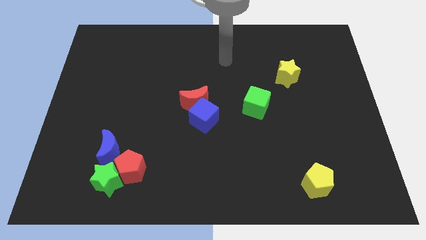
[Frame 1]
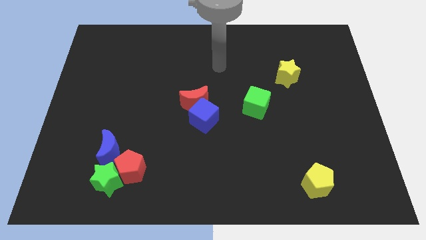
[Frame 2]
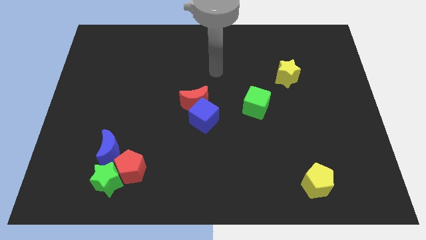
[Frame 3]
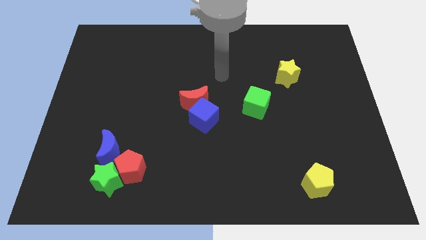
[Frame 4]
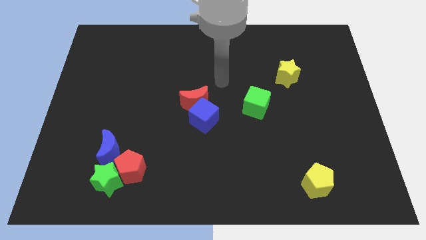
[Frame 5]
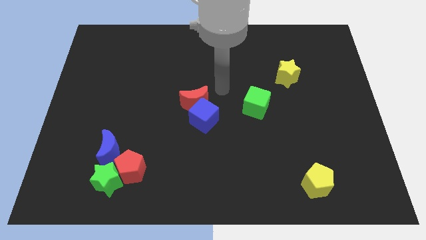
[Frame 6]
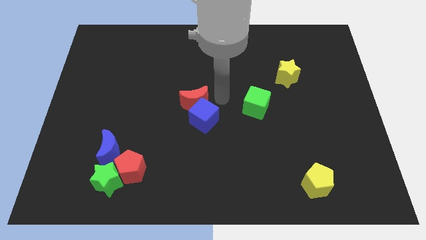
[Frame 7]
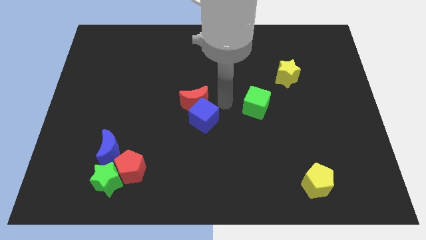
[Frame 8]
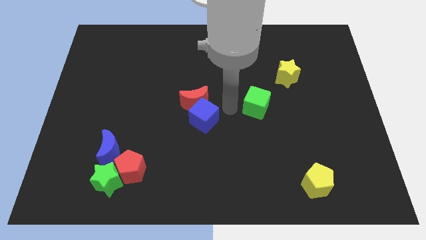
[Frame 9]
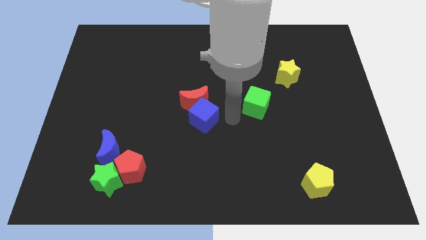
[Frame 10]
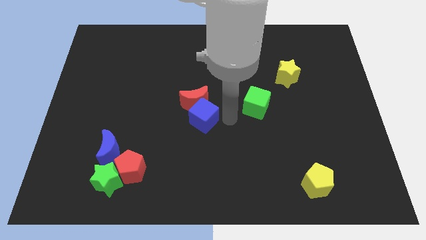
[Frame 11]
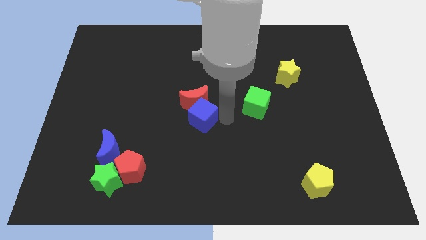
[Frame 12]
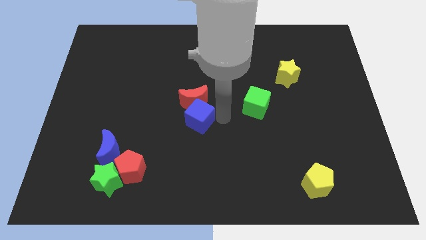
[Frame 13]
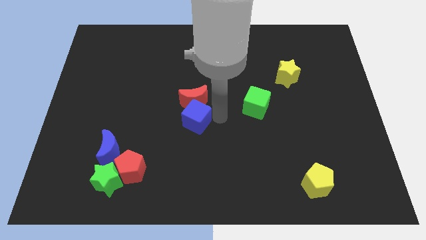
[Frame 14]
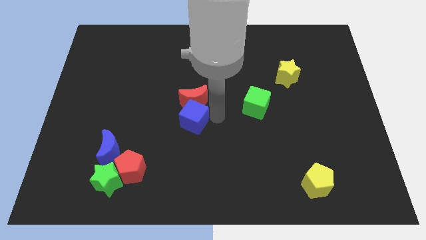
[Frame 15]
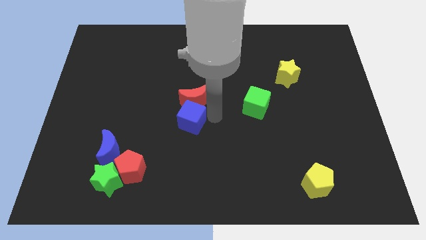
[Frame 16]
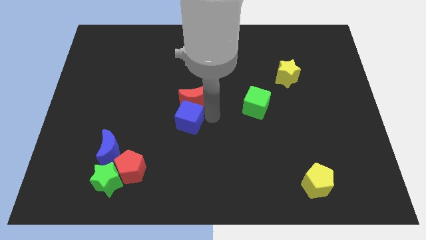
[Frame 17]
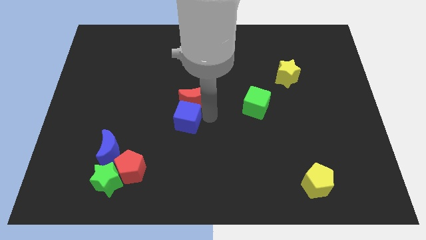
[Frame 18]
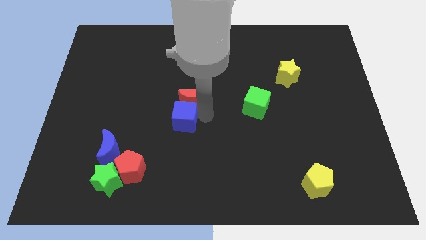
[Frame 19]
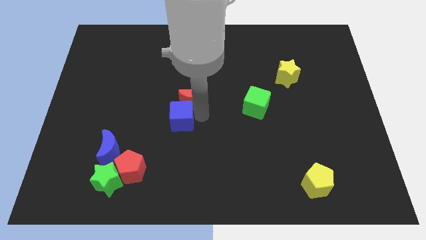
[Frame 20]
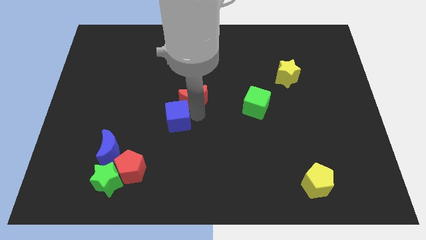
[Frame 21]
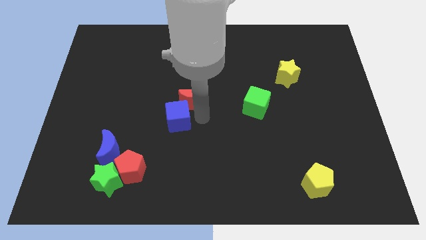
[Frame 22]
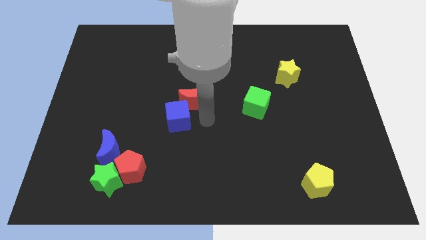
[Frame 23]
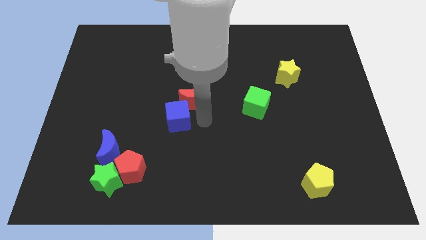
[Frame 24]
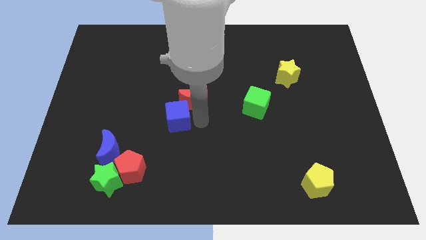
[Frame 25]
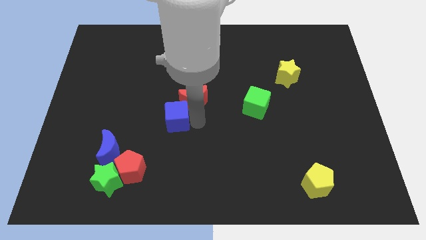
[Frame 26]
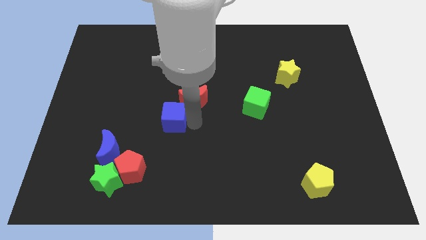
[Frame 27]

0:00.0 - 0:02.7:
move the blue cube somewhat to the left

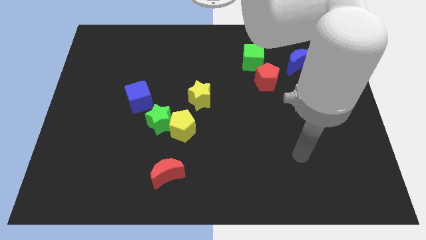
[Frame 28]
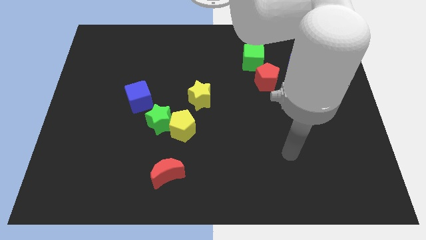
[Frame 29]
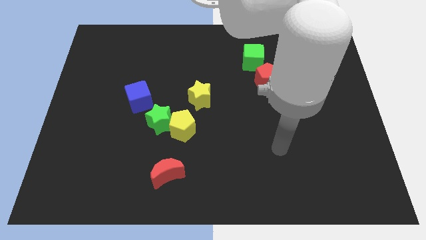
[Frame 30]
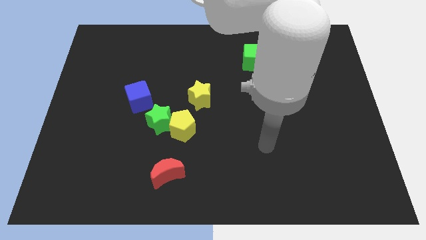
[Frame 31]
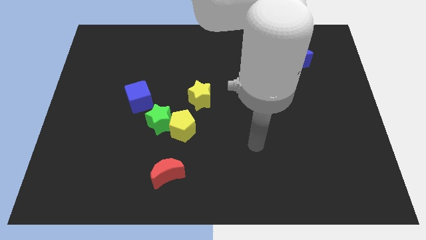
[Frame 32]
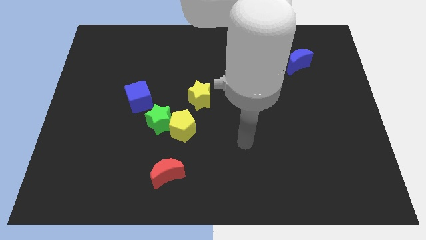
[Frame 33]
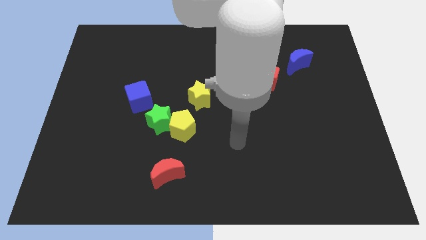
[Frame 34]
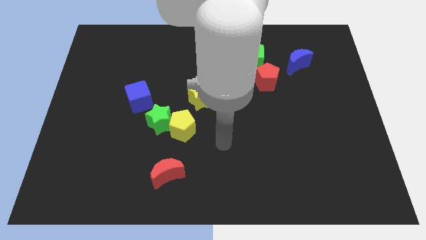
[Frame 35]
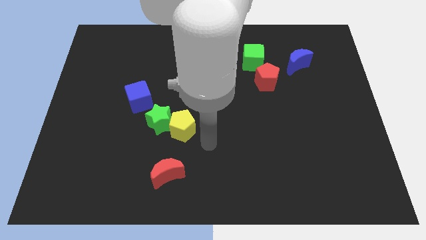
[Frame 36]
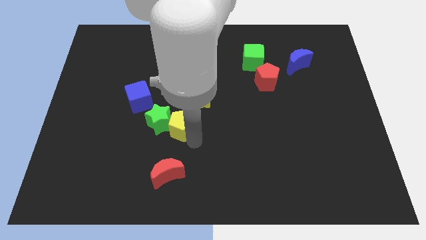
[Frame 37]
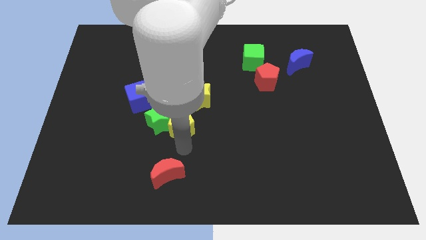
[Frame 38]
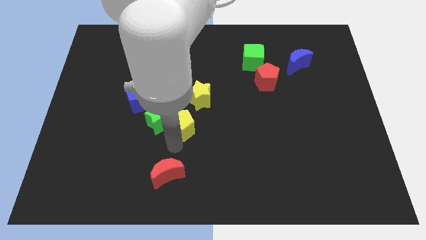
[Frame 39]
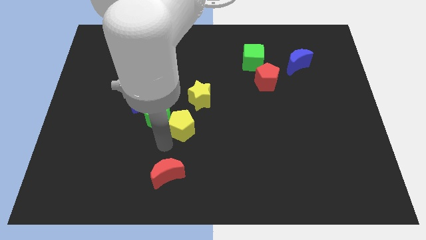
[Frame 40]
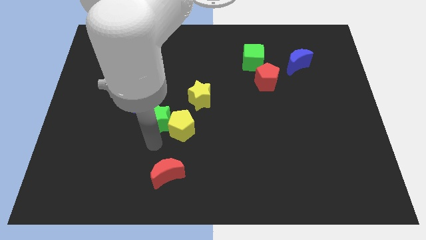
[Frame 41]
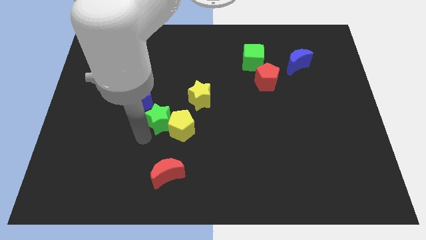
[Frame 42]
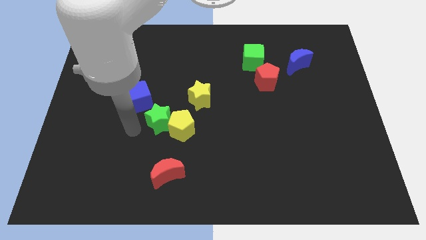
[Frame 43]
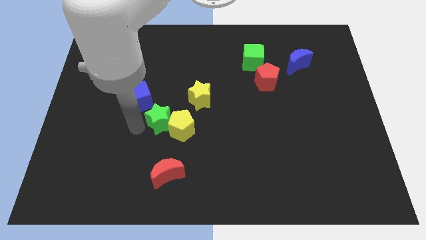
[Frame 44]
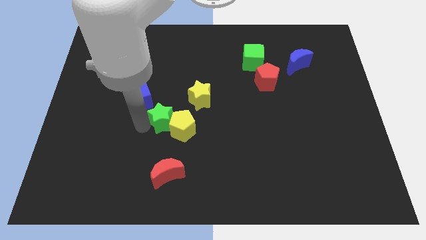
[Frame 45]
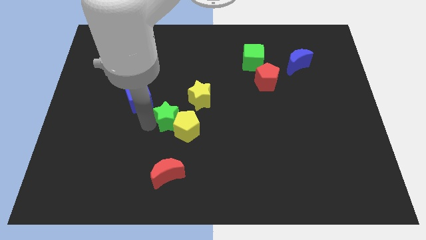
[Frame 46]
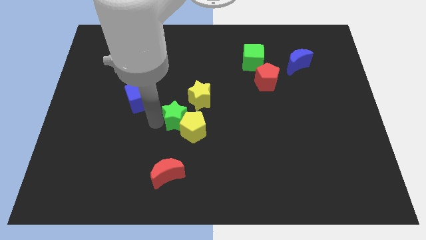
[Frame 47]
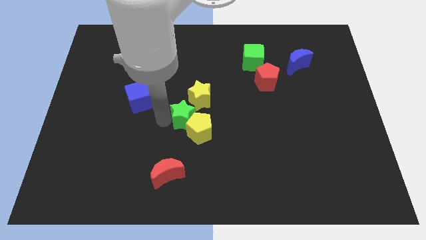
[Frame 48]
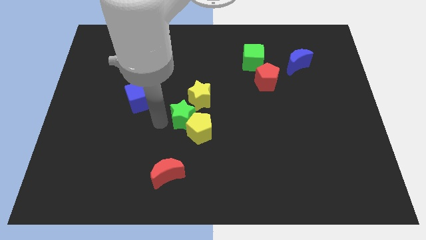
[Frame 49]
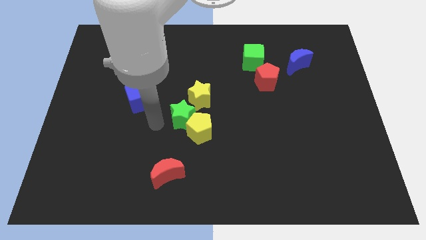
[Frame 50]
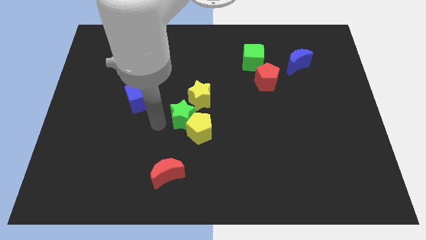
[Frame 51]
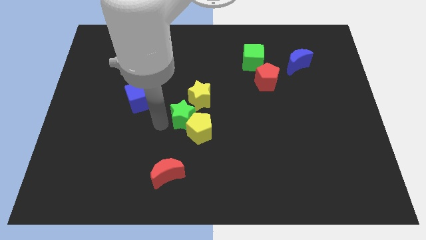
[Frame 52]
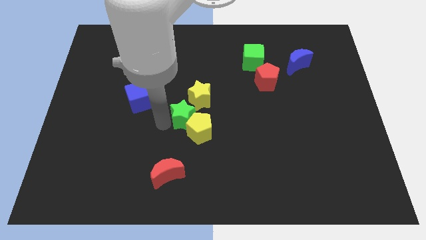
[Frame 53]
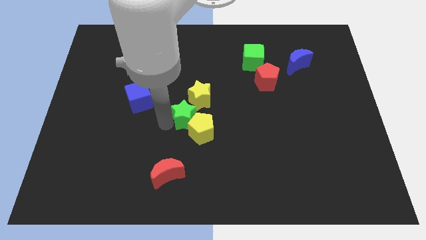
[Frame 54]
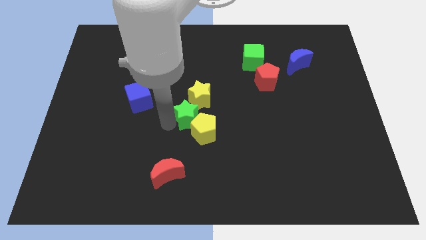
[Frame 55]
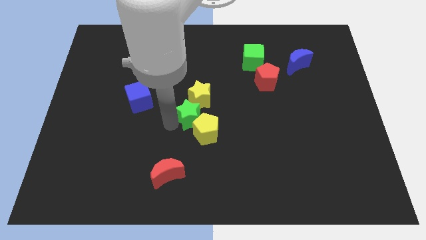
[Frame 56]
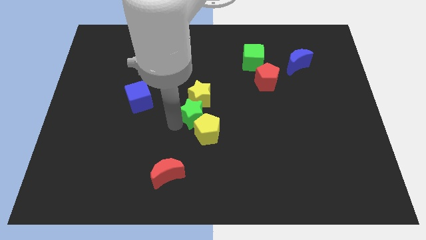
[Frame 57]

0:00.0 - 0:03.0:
slightly slide the green star right

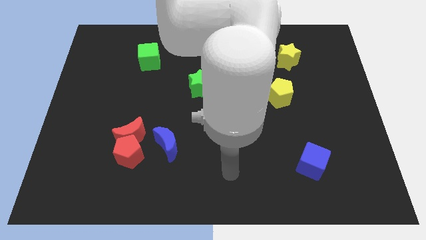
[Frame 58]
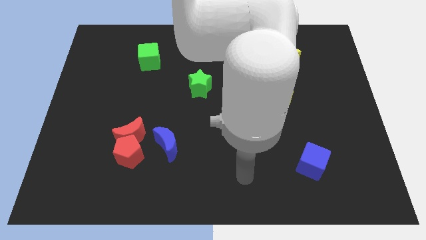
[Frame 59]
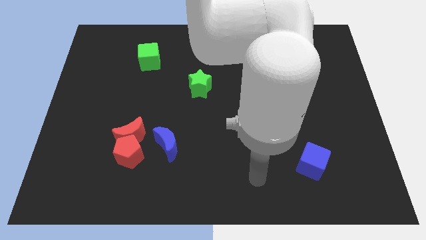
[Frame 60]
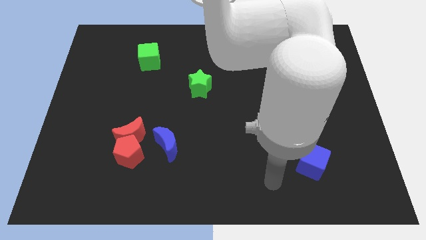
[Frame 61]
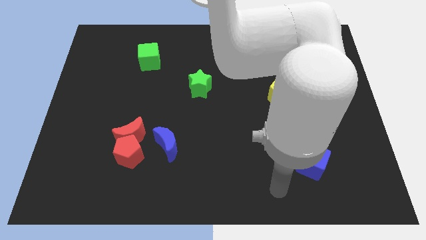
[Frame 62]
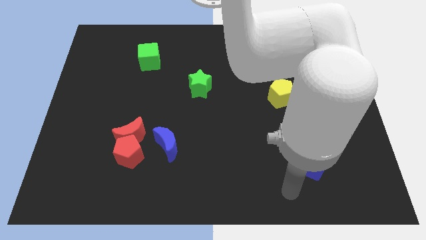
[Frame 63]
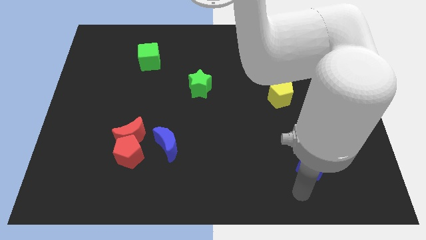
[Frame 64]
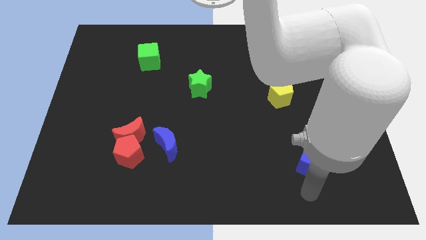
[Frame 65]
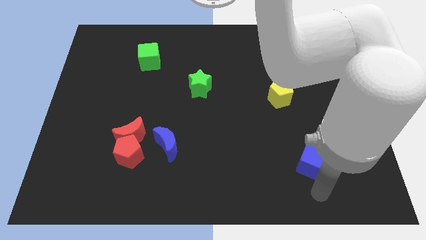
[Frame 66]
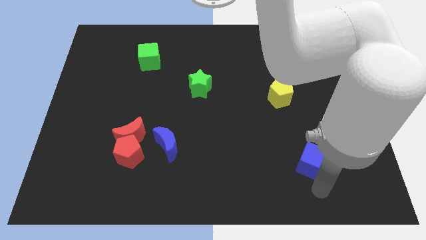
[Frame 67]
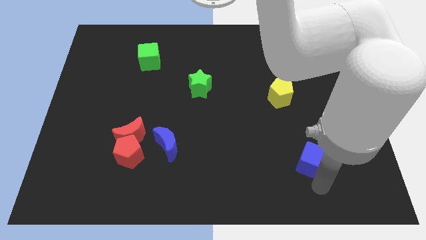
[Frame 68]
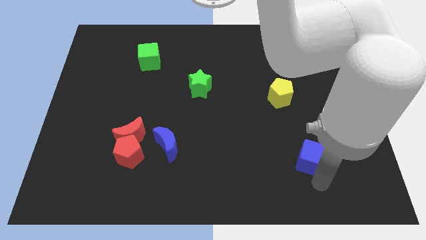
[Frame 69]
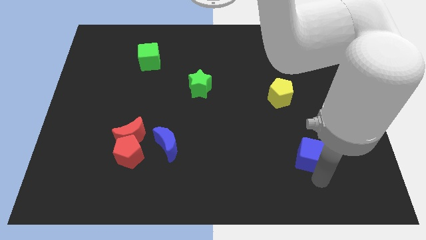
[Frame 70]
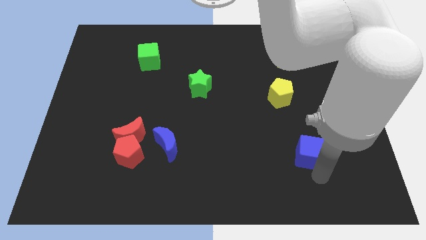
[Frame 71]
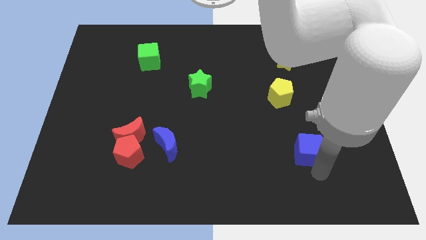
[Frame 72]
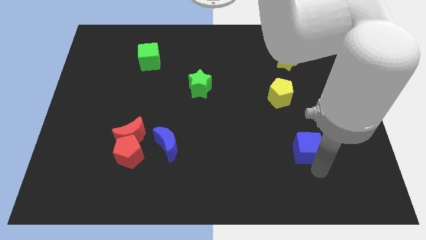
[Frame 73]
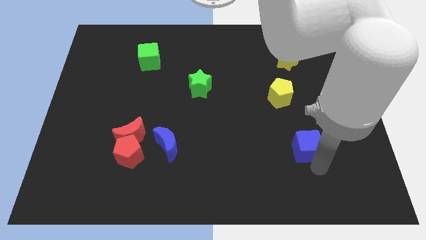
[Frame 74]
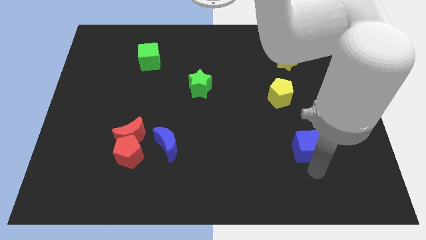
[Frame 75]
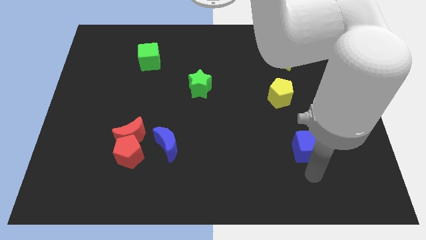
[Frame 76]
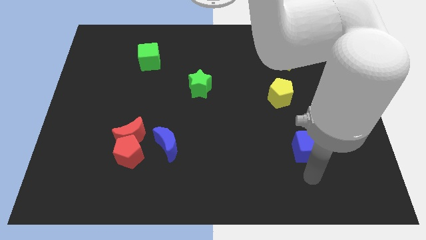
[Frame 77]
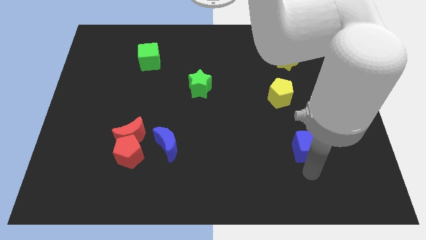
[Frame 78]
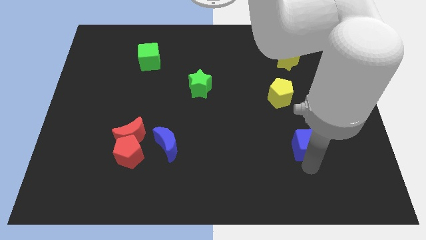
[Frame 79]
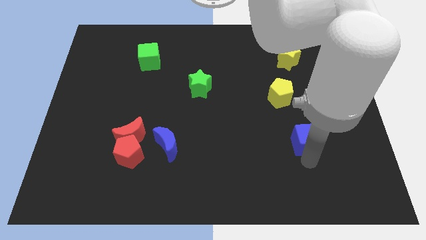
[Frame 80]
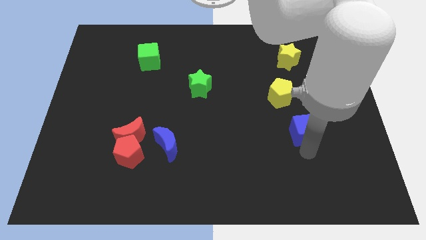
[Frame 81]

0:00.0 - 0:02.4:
slide the blue cube a bit upwards
